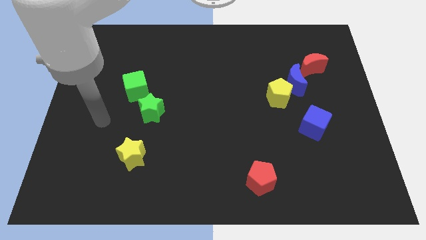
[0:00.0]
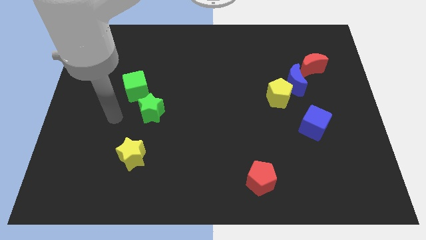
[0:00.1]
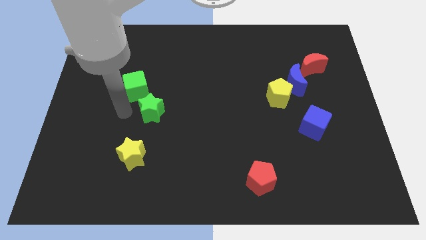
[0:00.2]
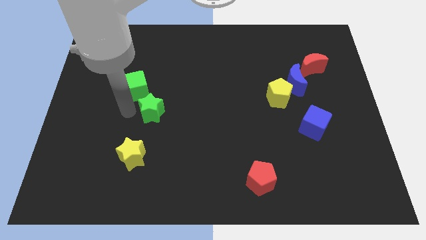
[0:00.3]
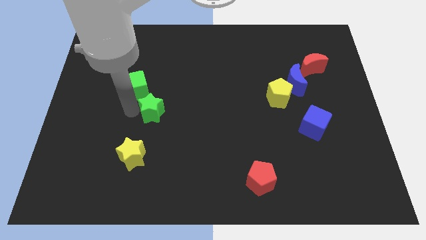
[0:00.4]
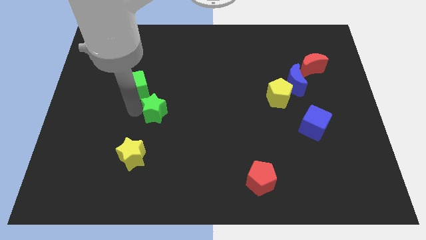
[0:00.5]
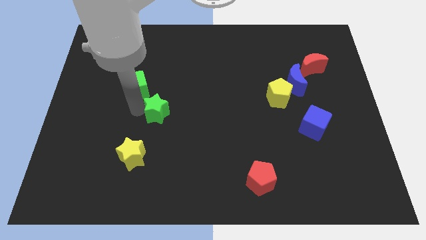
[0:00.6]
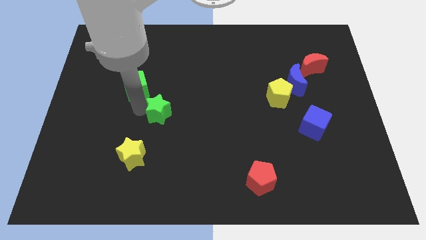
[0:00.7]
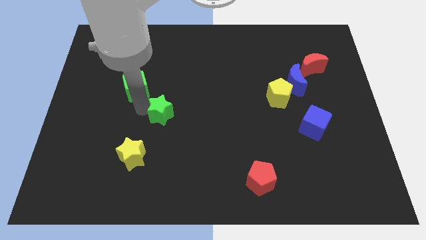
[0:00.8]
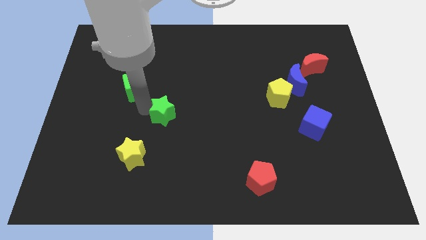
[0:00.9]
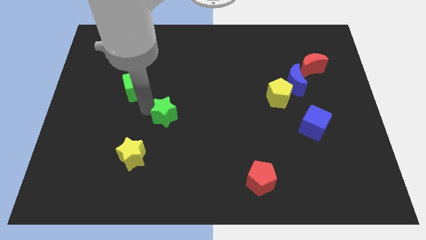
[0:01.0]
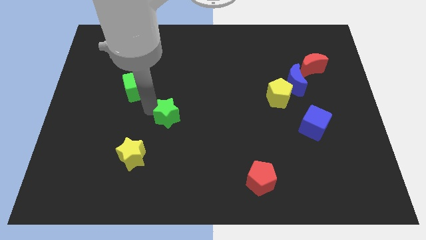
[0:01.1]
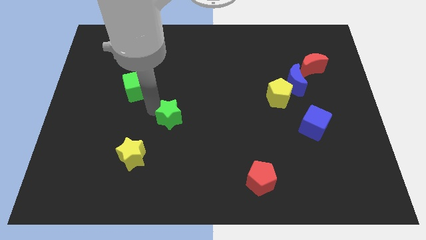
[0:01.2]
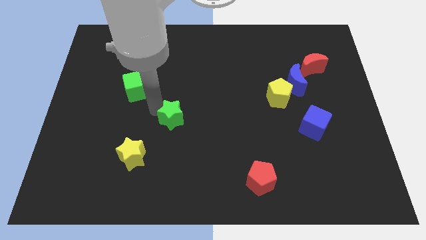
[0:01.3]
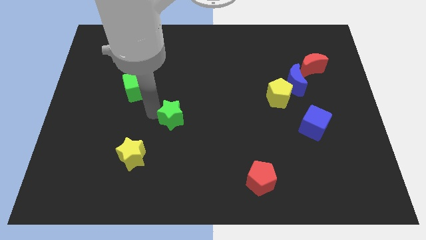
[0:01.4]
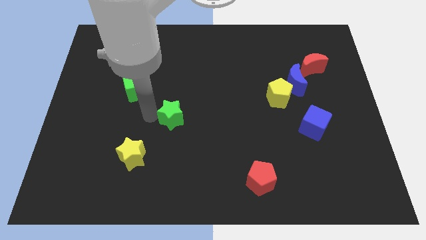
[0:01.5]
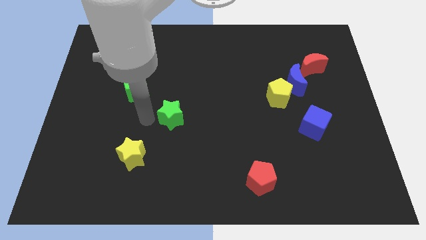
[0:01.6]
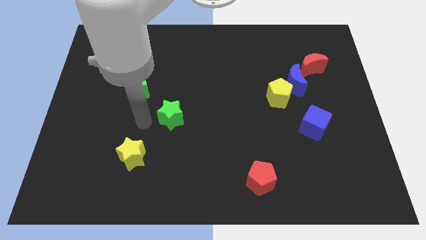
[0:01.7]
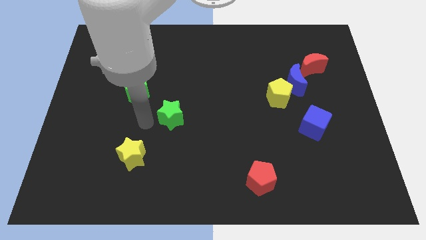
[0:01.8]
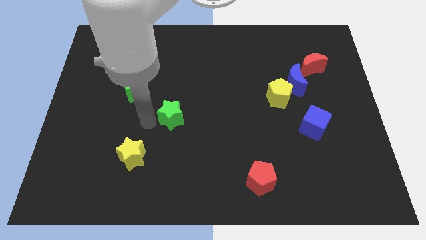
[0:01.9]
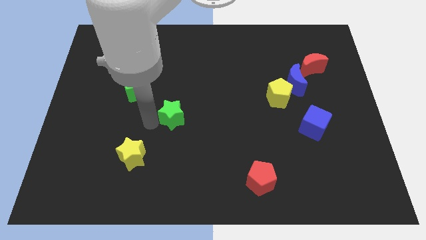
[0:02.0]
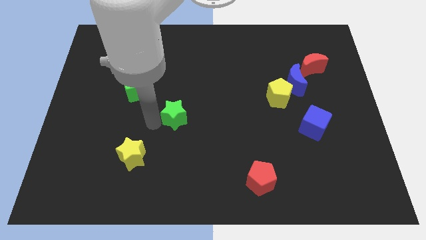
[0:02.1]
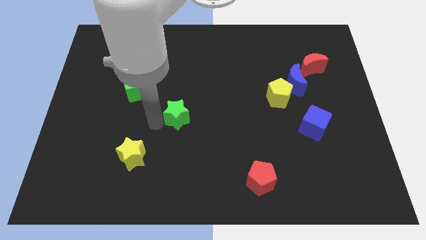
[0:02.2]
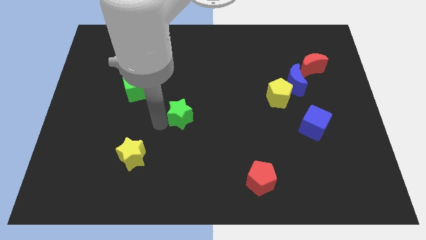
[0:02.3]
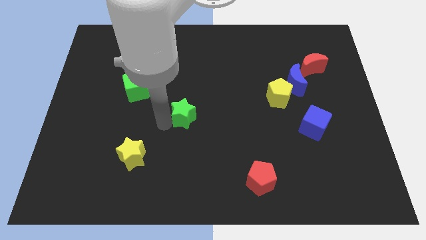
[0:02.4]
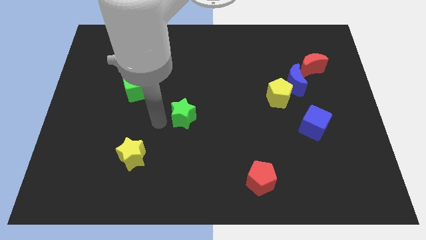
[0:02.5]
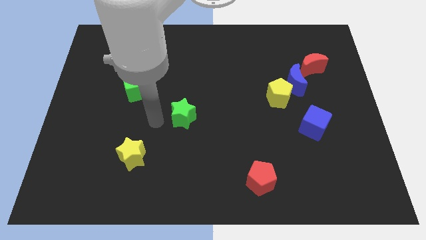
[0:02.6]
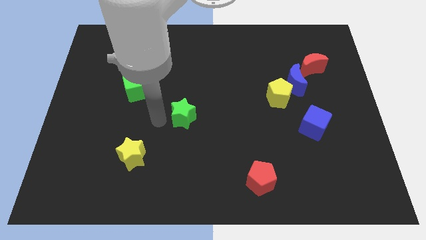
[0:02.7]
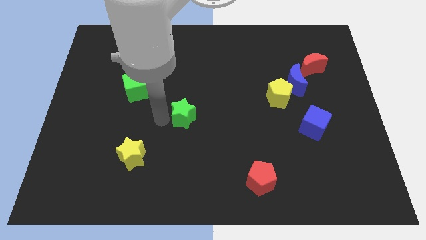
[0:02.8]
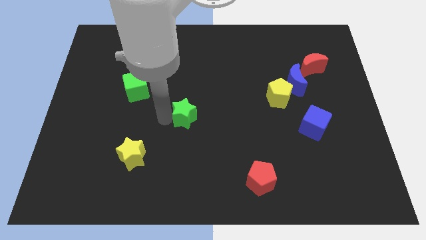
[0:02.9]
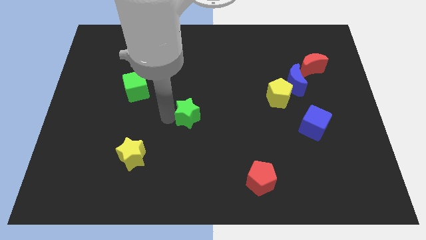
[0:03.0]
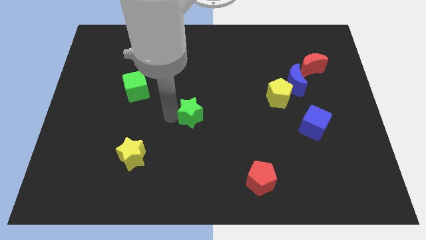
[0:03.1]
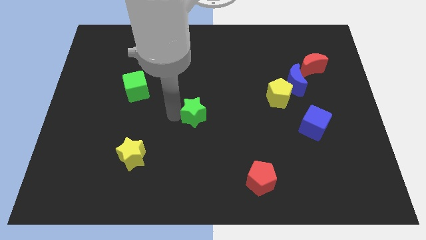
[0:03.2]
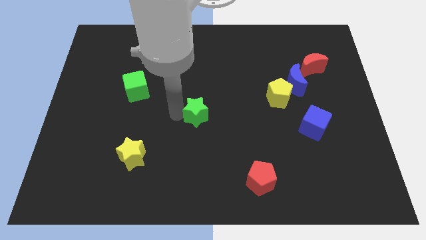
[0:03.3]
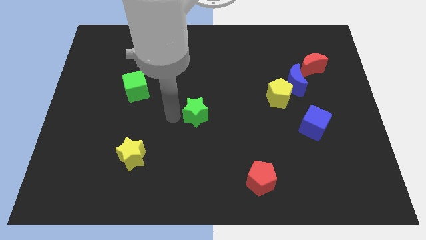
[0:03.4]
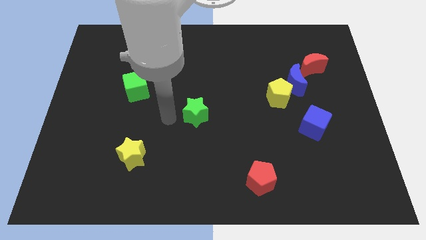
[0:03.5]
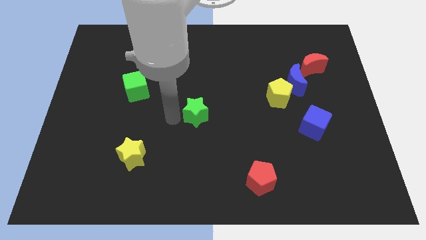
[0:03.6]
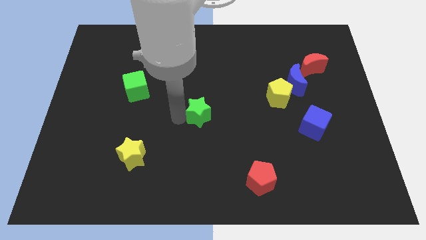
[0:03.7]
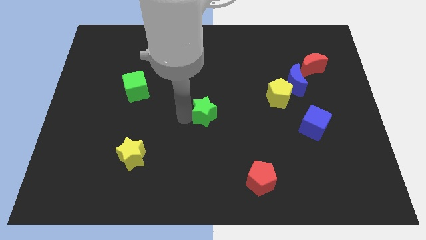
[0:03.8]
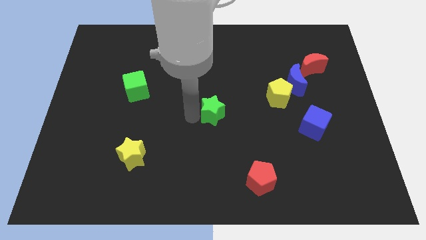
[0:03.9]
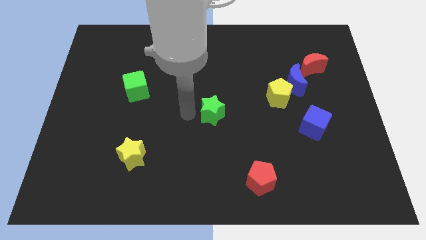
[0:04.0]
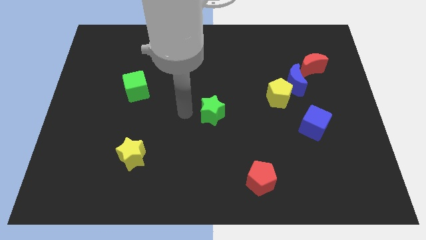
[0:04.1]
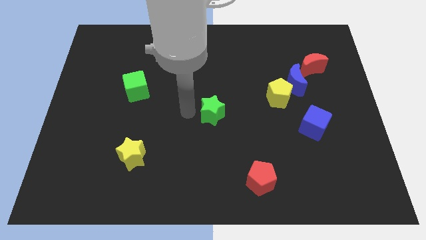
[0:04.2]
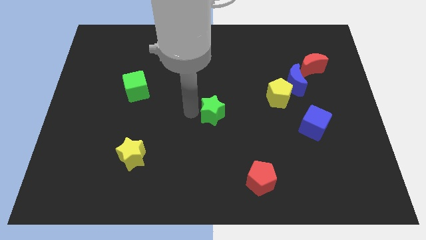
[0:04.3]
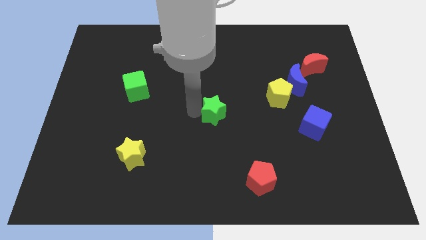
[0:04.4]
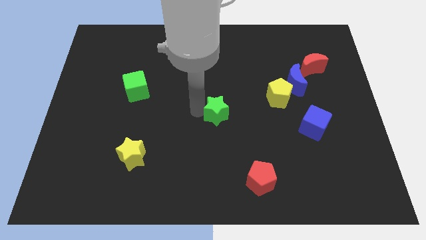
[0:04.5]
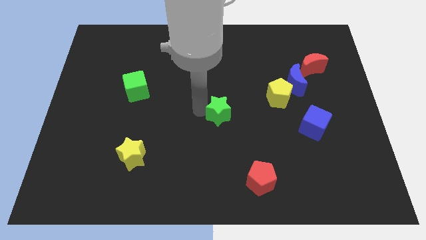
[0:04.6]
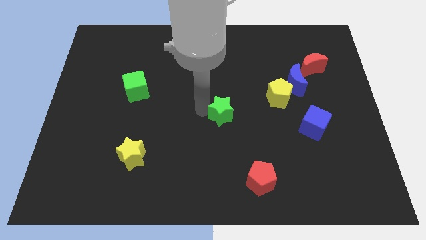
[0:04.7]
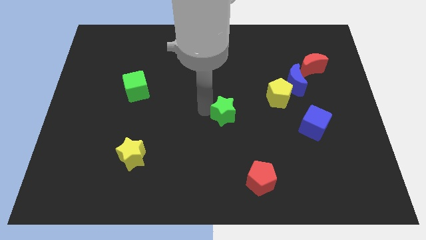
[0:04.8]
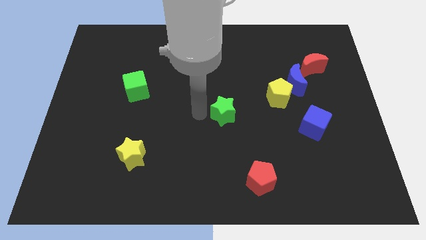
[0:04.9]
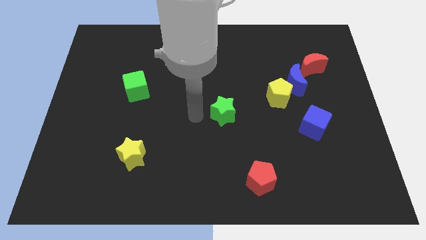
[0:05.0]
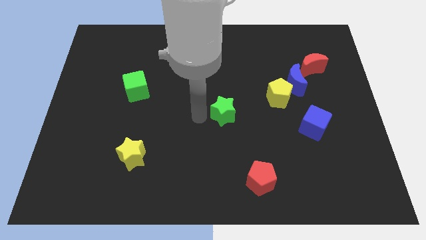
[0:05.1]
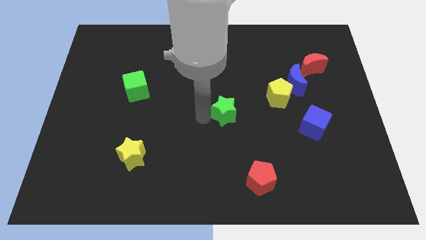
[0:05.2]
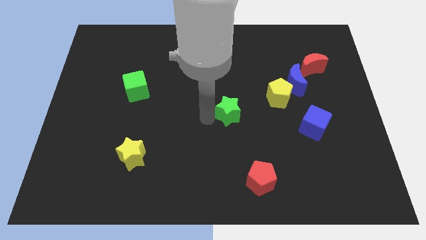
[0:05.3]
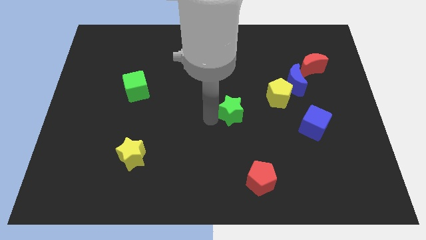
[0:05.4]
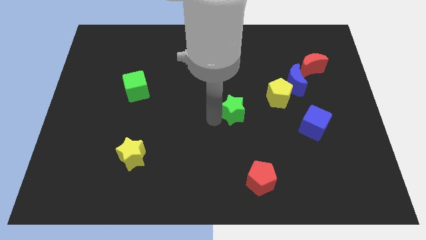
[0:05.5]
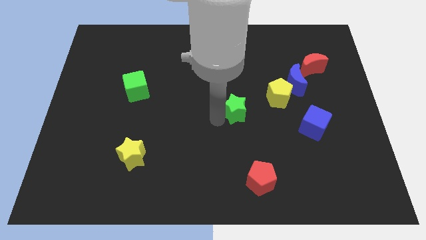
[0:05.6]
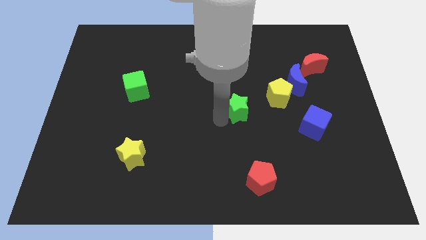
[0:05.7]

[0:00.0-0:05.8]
slide the green star diagonally down and to the left of the yellow pentagon

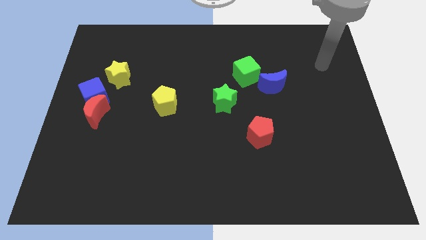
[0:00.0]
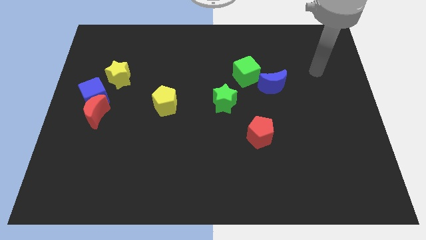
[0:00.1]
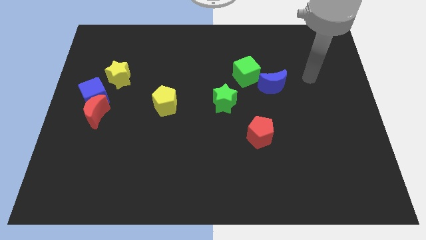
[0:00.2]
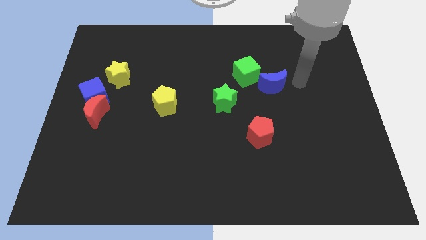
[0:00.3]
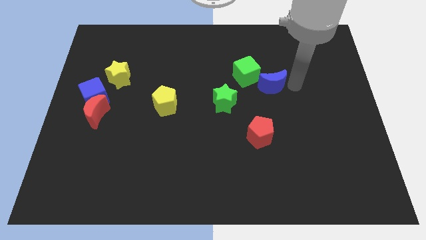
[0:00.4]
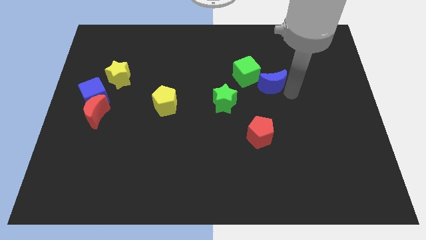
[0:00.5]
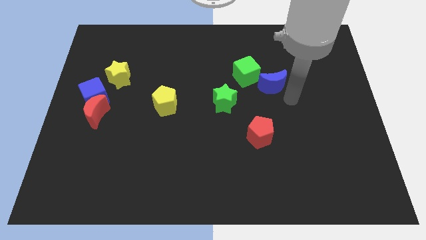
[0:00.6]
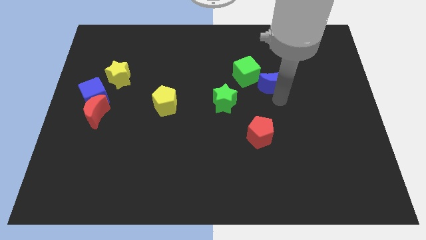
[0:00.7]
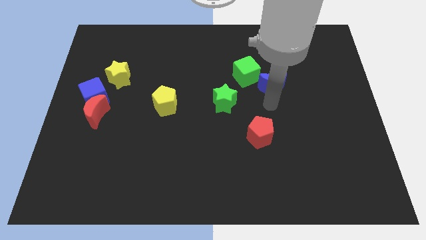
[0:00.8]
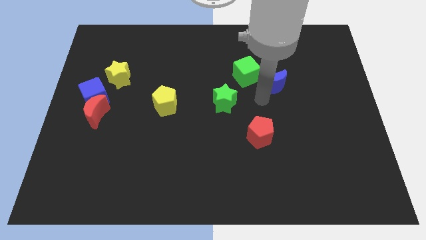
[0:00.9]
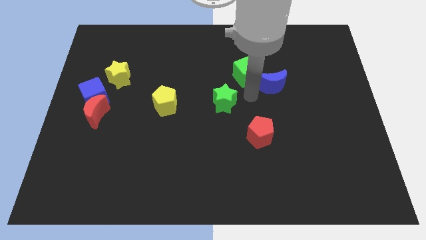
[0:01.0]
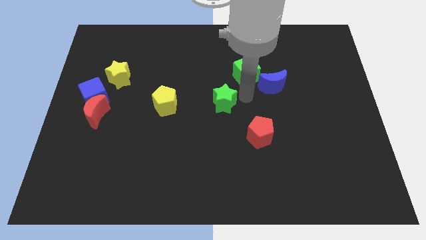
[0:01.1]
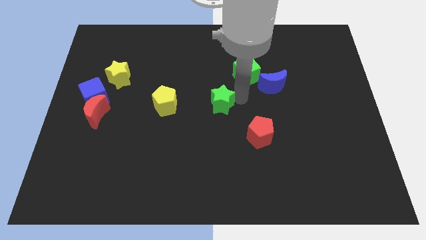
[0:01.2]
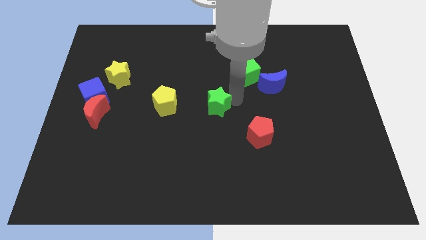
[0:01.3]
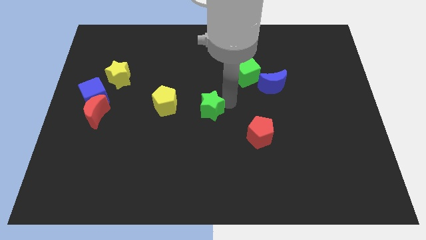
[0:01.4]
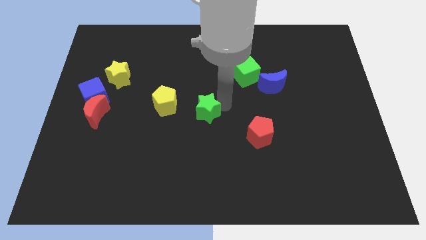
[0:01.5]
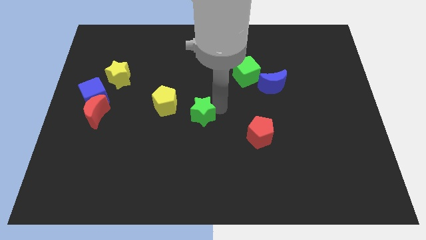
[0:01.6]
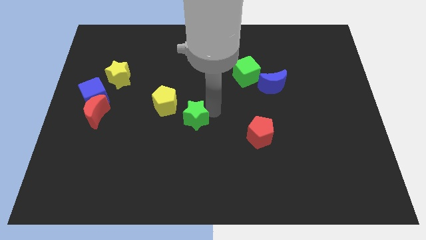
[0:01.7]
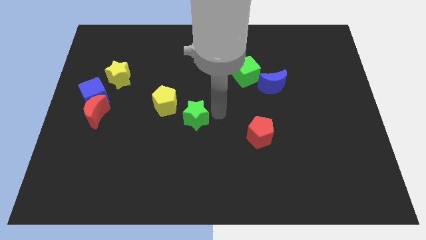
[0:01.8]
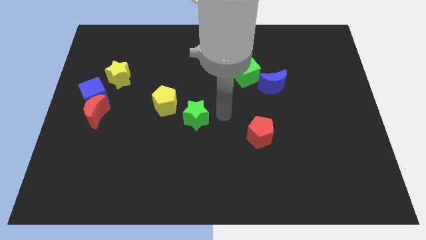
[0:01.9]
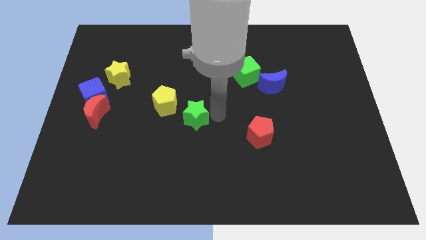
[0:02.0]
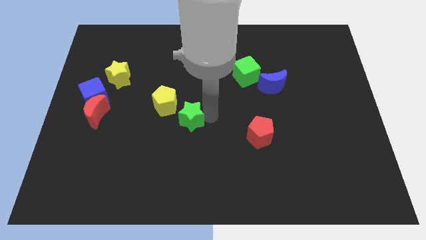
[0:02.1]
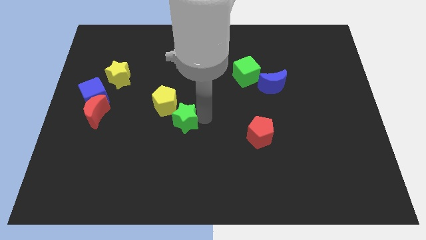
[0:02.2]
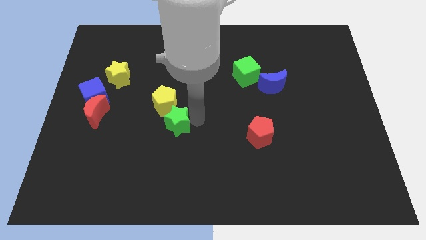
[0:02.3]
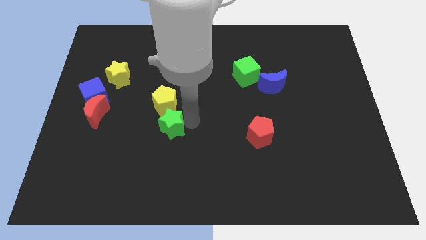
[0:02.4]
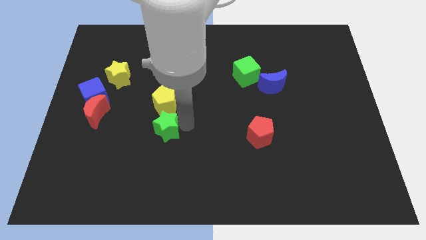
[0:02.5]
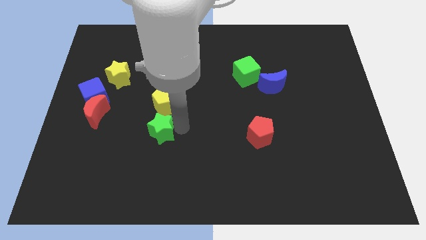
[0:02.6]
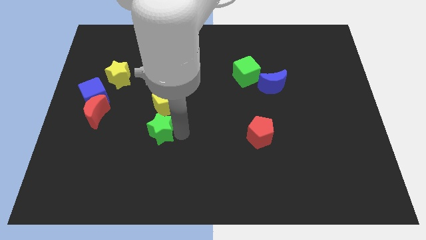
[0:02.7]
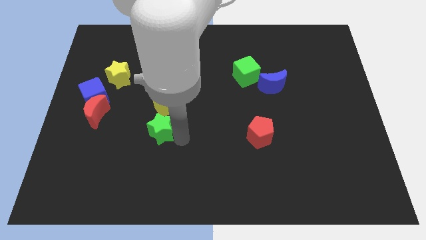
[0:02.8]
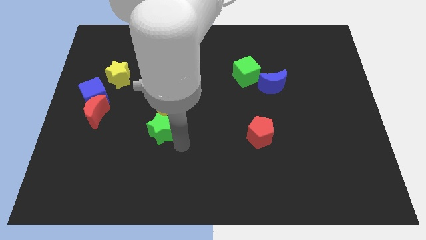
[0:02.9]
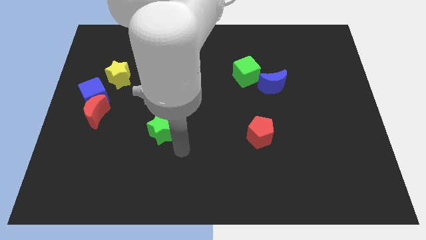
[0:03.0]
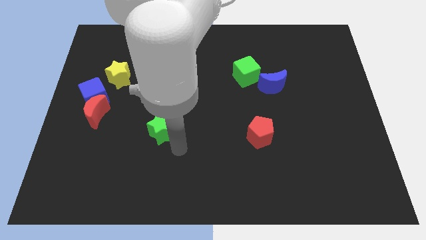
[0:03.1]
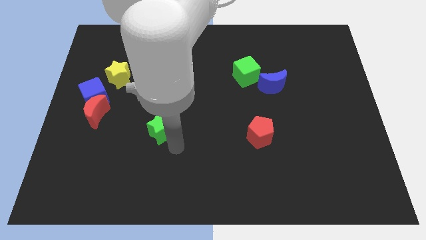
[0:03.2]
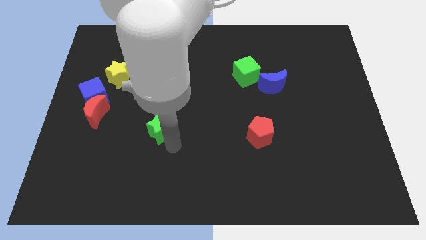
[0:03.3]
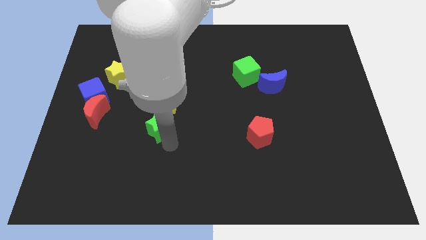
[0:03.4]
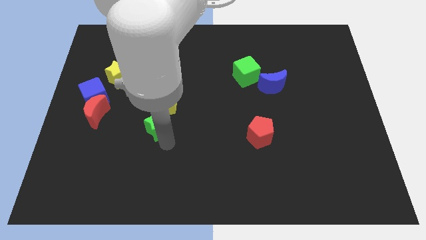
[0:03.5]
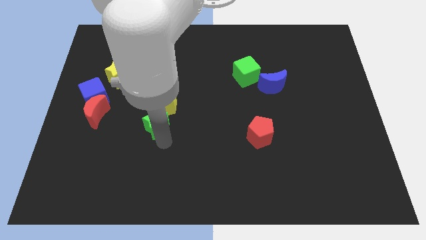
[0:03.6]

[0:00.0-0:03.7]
slide the green star to the right side of the red moon
